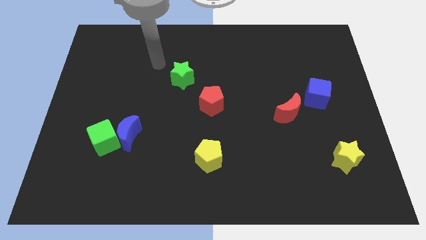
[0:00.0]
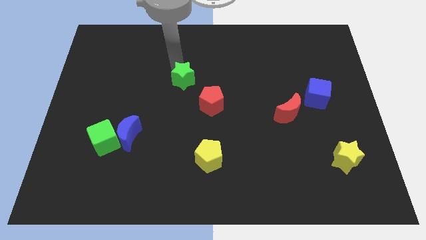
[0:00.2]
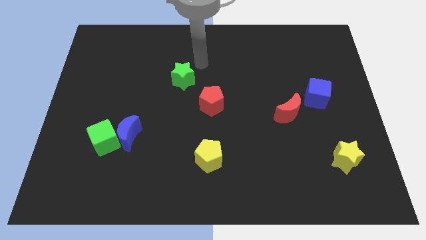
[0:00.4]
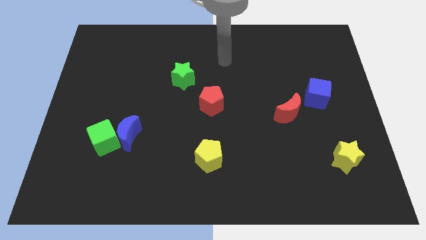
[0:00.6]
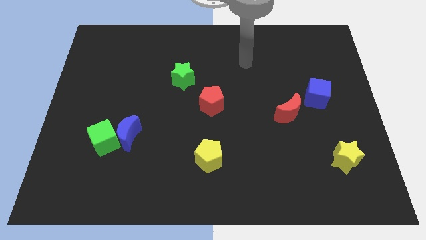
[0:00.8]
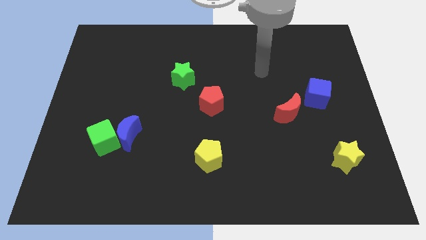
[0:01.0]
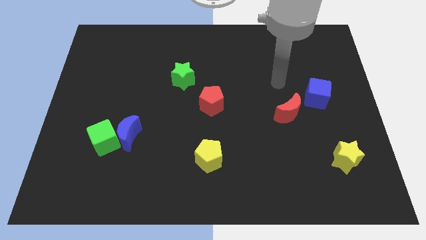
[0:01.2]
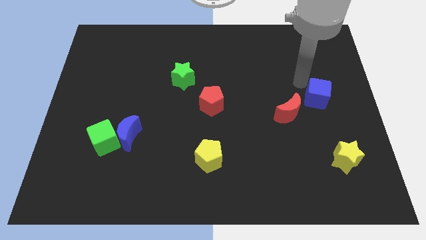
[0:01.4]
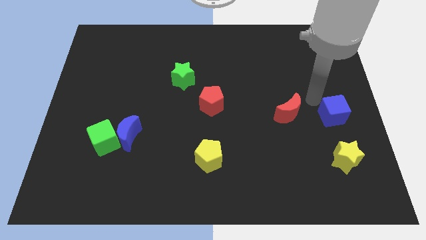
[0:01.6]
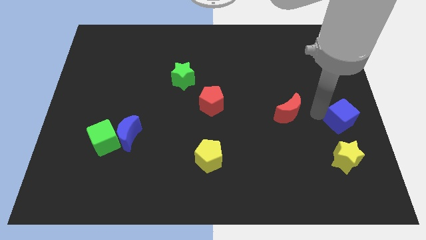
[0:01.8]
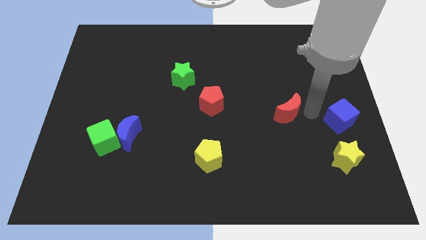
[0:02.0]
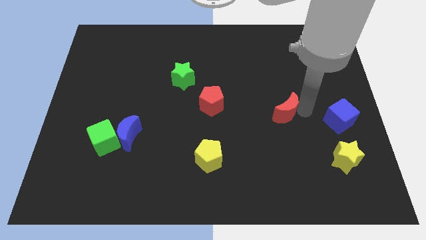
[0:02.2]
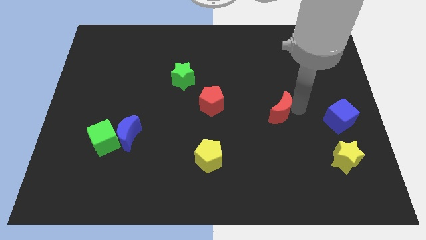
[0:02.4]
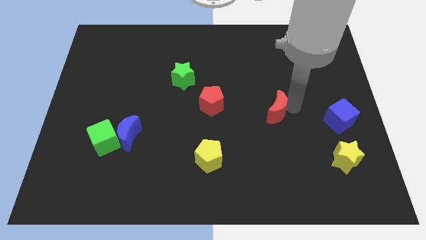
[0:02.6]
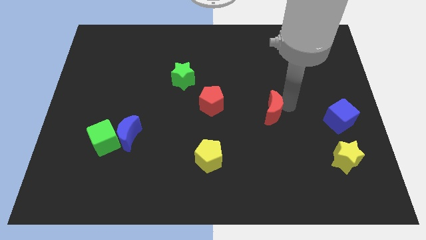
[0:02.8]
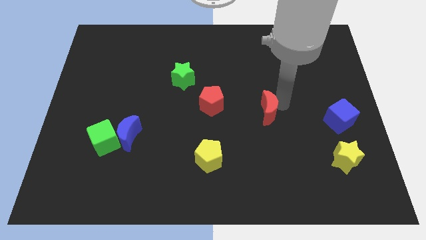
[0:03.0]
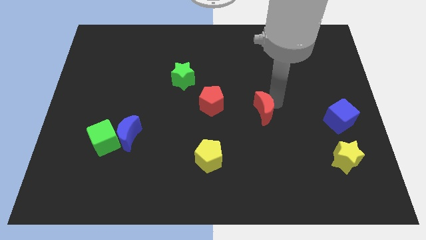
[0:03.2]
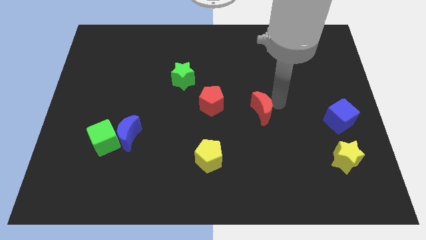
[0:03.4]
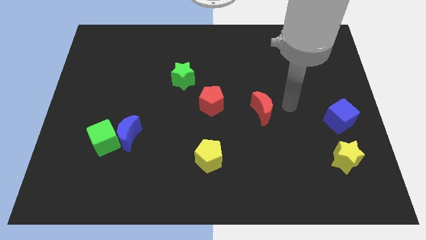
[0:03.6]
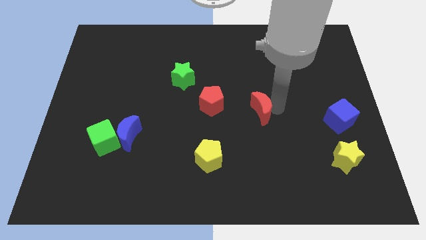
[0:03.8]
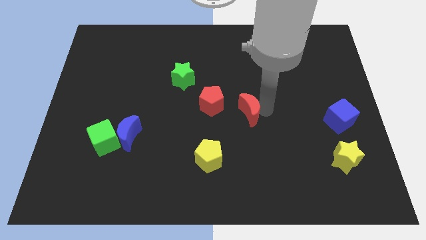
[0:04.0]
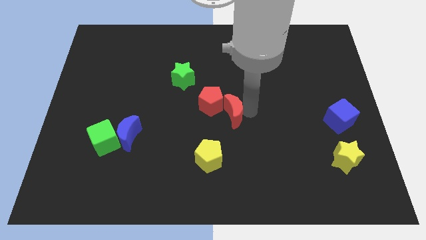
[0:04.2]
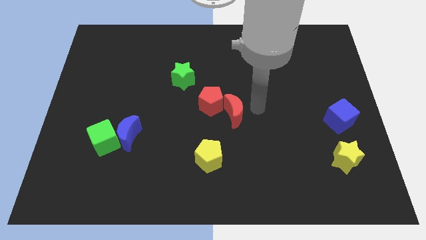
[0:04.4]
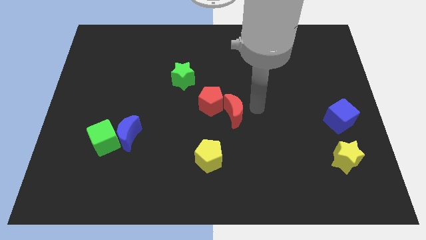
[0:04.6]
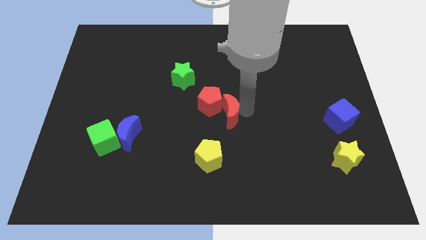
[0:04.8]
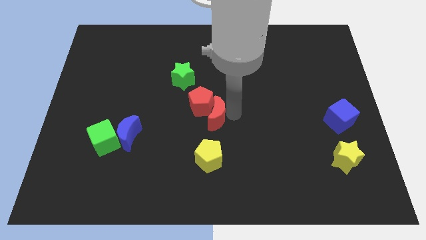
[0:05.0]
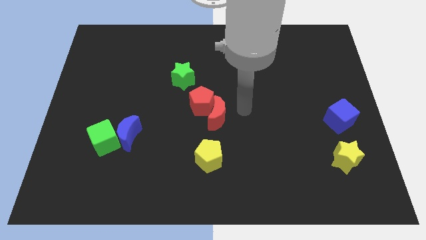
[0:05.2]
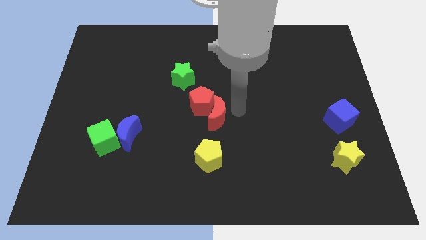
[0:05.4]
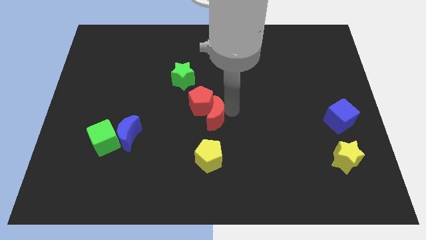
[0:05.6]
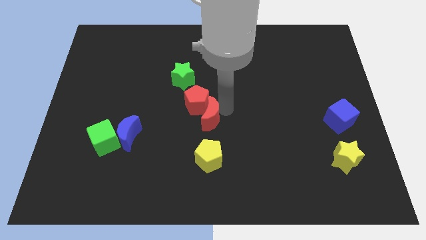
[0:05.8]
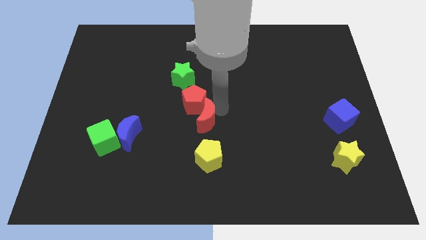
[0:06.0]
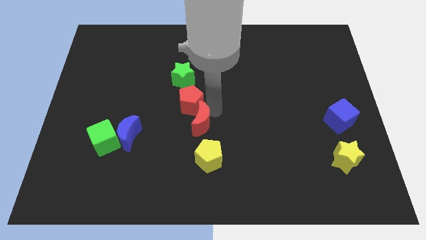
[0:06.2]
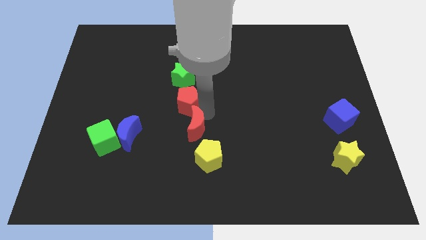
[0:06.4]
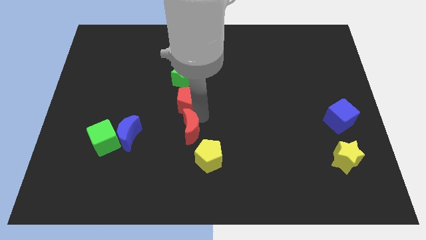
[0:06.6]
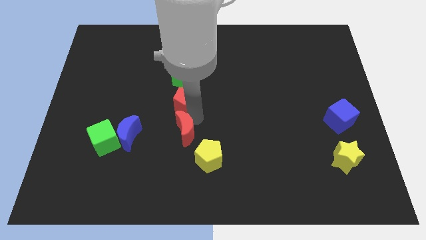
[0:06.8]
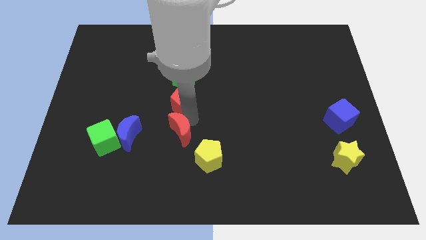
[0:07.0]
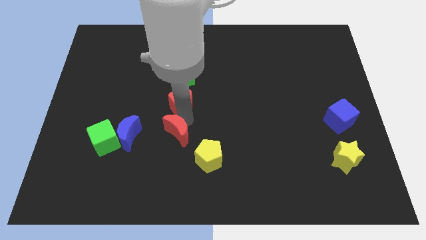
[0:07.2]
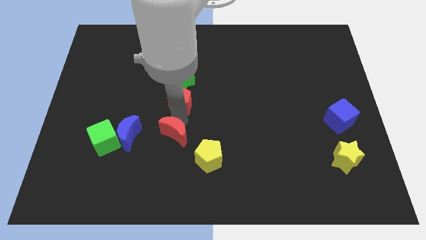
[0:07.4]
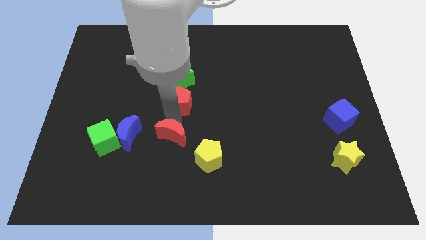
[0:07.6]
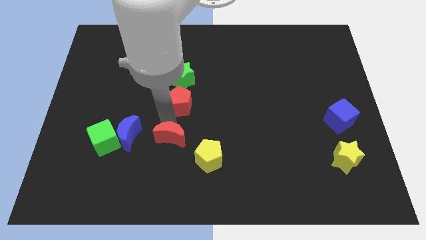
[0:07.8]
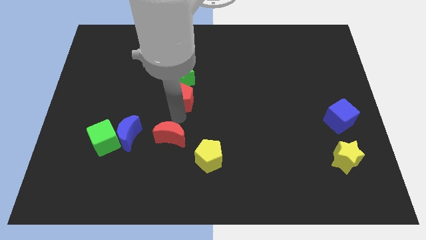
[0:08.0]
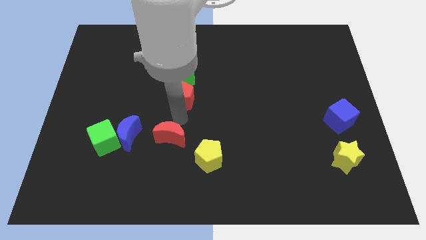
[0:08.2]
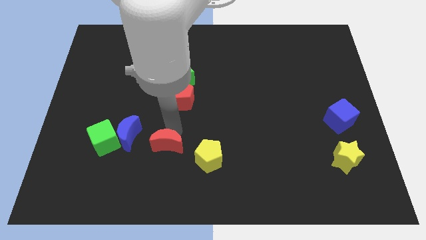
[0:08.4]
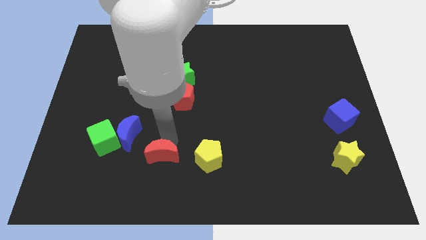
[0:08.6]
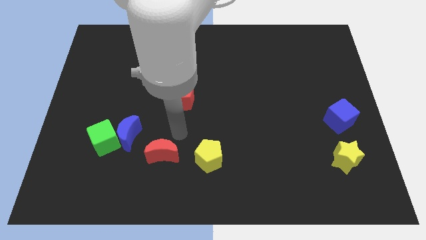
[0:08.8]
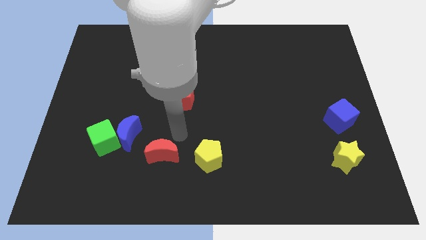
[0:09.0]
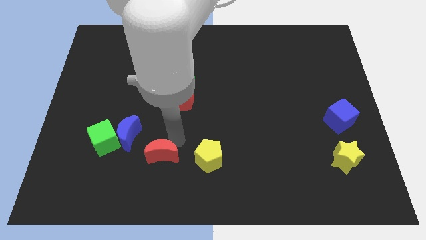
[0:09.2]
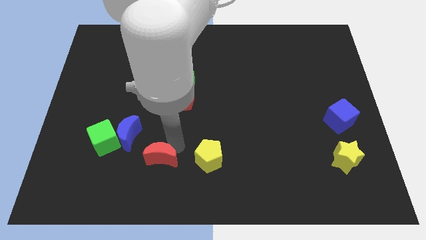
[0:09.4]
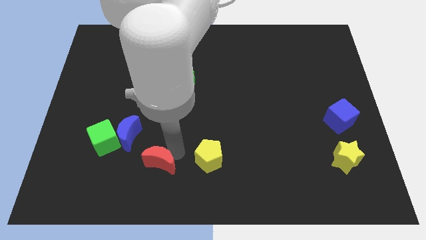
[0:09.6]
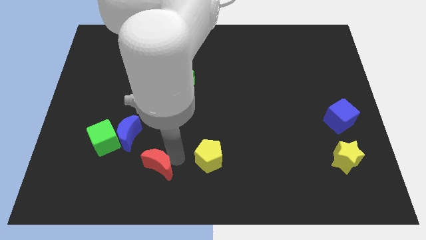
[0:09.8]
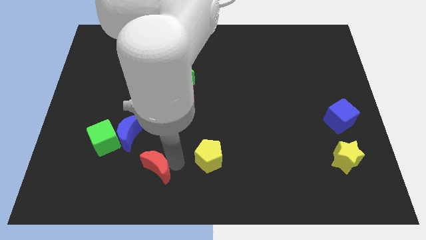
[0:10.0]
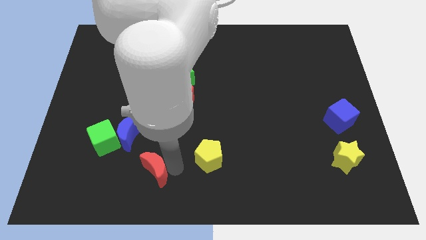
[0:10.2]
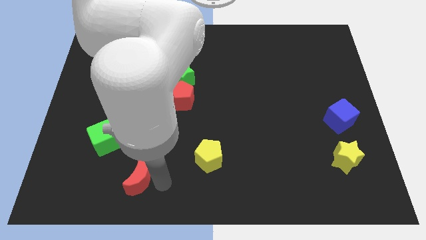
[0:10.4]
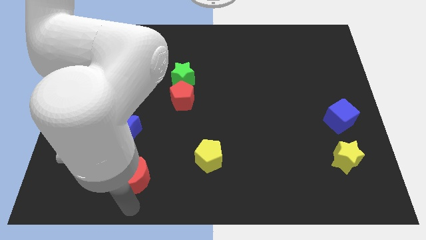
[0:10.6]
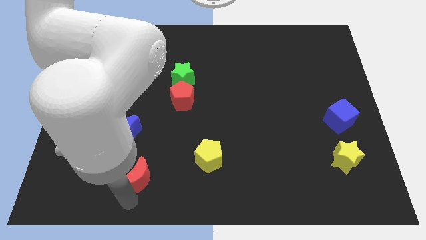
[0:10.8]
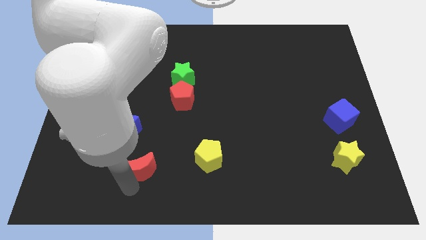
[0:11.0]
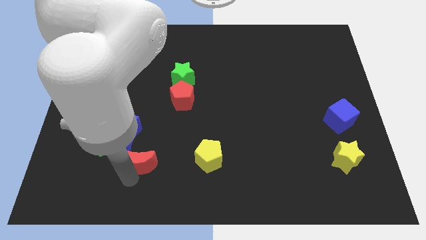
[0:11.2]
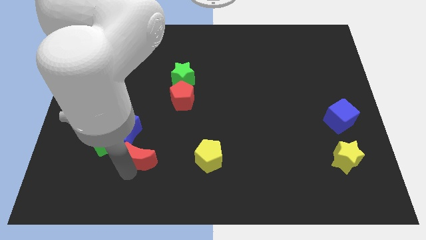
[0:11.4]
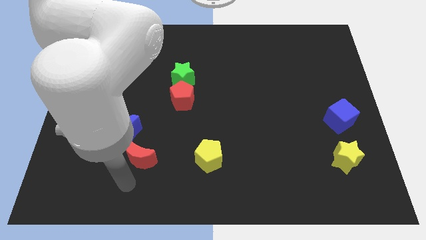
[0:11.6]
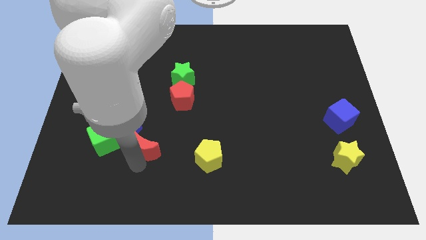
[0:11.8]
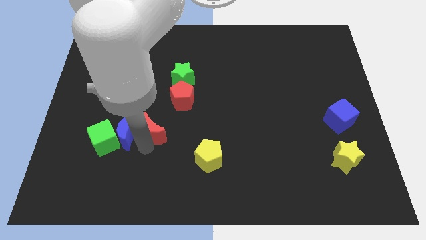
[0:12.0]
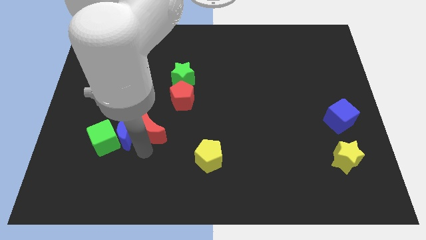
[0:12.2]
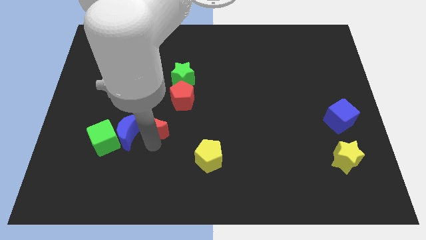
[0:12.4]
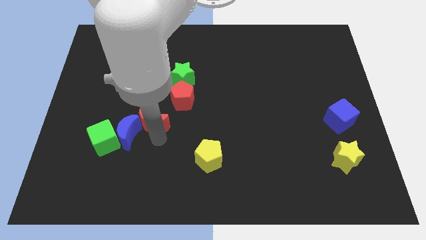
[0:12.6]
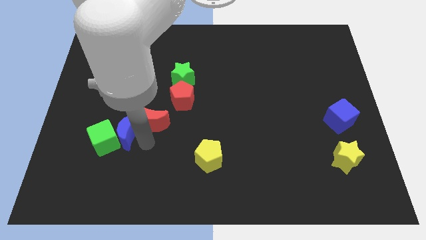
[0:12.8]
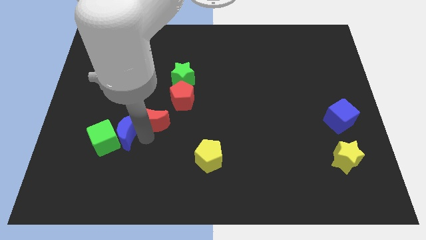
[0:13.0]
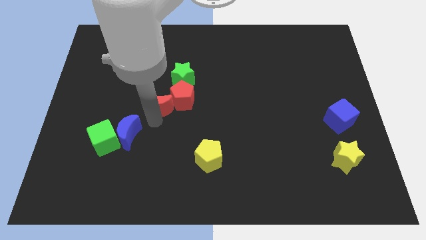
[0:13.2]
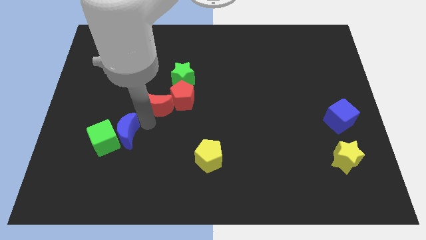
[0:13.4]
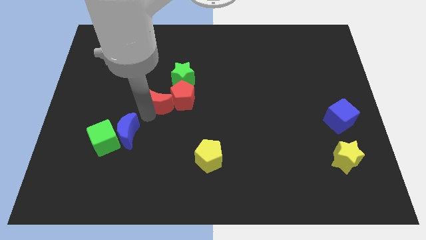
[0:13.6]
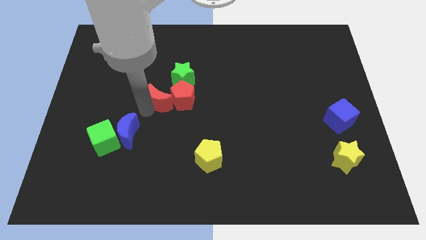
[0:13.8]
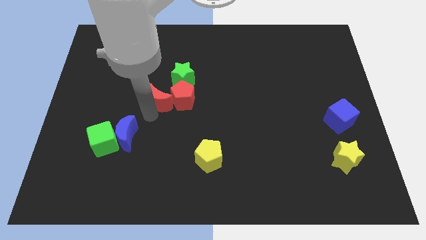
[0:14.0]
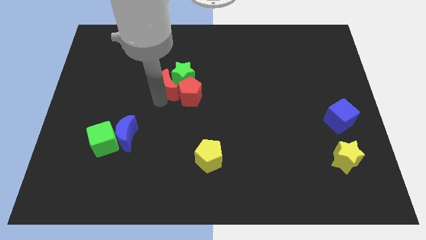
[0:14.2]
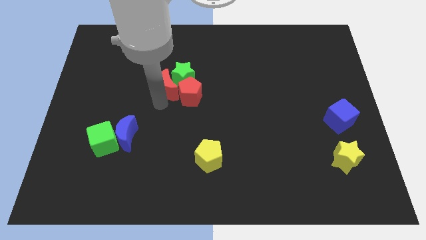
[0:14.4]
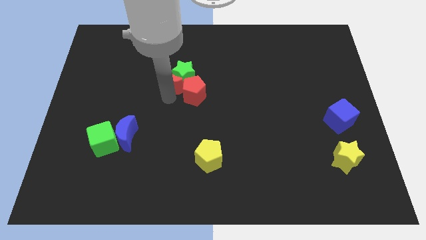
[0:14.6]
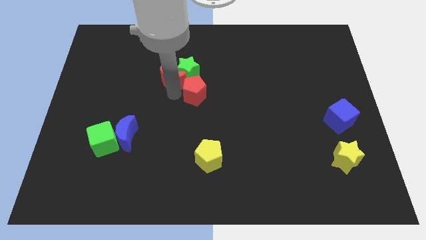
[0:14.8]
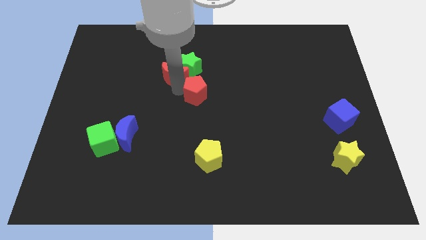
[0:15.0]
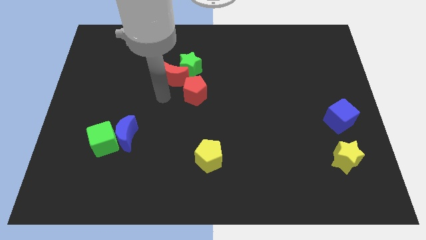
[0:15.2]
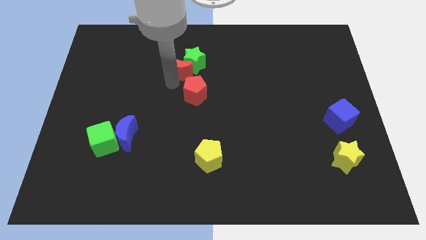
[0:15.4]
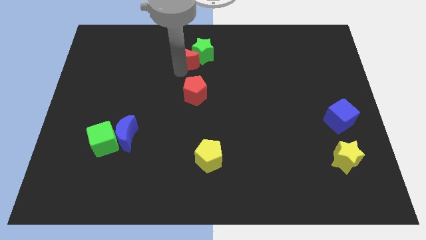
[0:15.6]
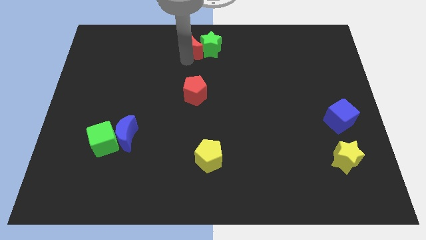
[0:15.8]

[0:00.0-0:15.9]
slide the red moon to the top
